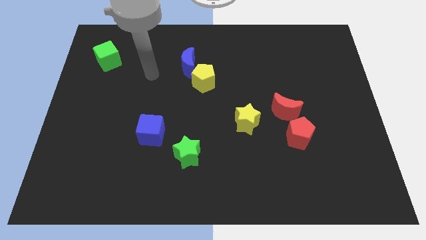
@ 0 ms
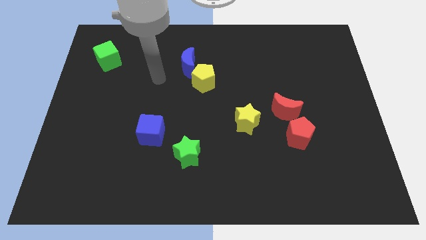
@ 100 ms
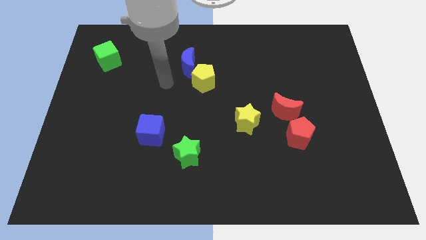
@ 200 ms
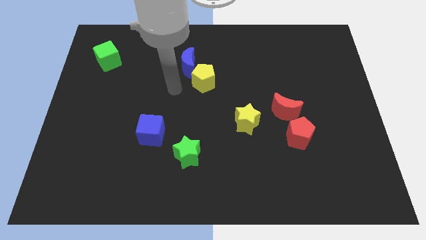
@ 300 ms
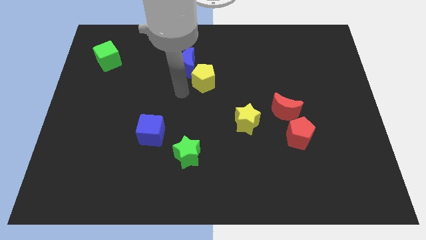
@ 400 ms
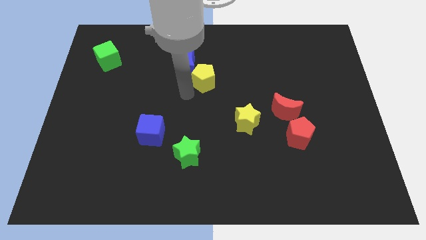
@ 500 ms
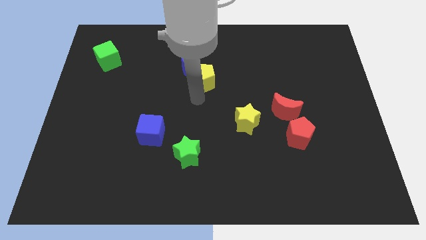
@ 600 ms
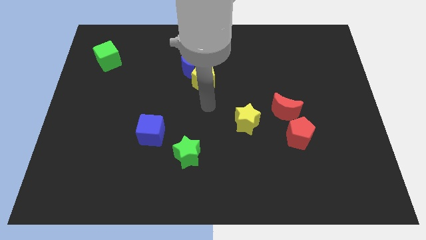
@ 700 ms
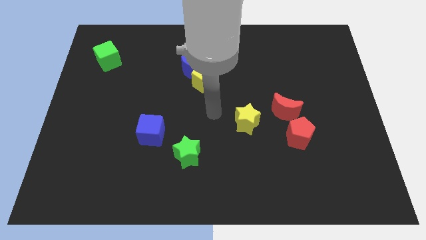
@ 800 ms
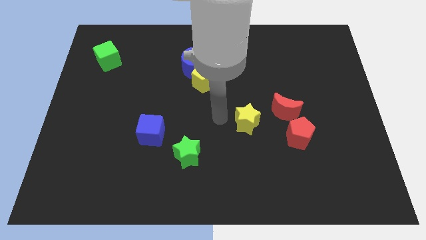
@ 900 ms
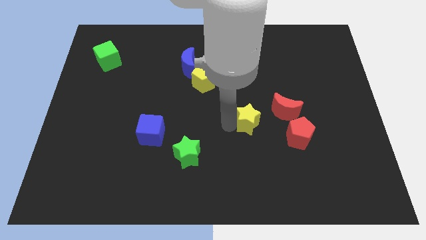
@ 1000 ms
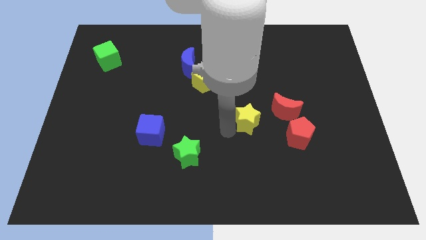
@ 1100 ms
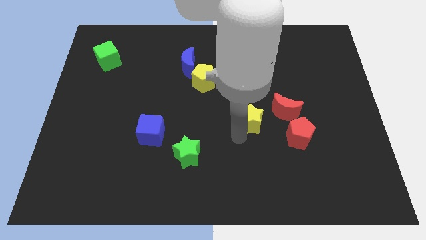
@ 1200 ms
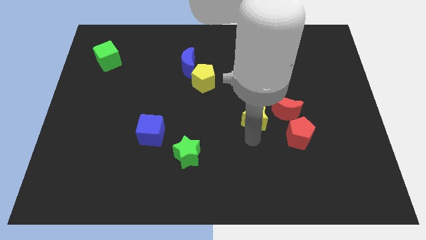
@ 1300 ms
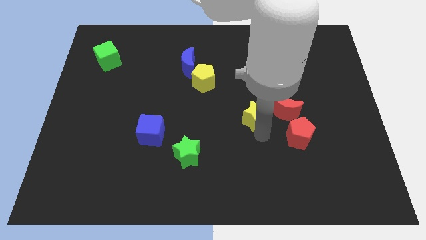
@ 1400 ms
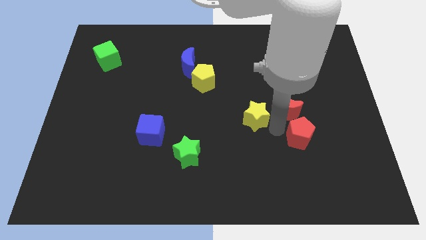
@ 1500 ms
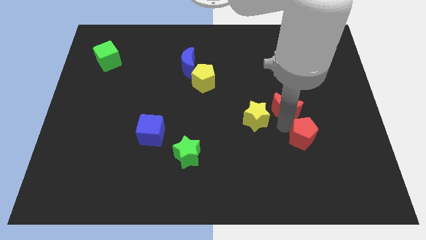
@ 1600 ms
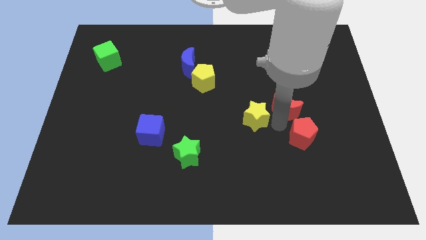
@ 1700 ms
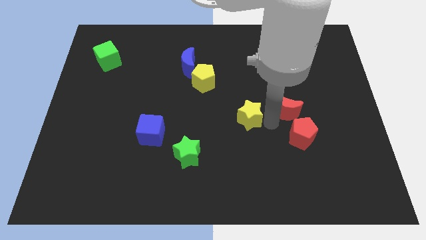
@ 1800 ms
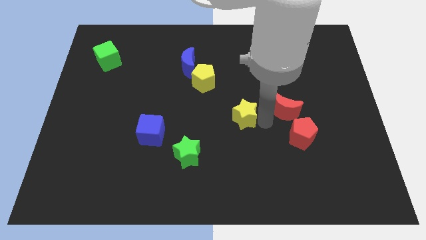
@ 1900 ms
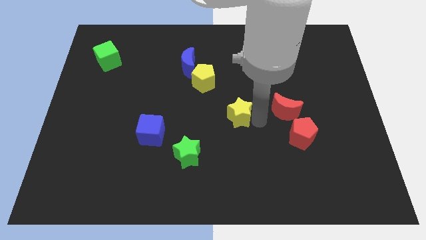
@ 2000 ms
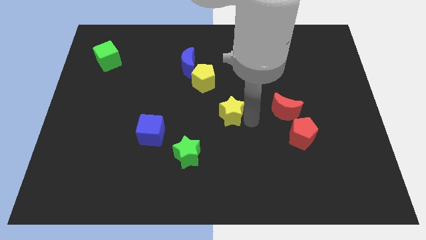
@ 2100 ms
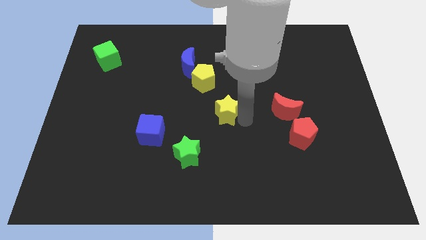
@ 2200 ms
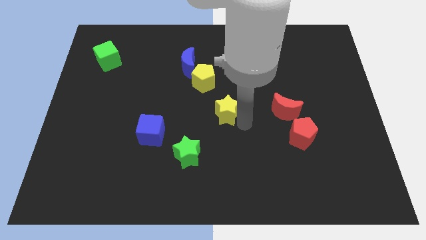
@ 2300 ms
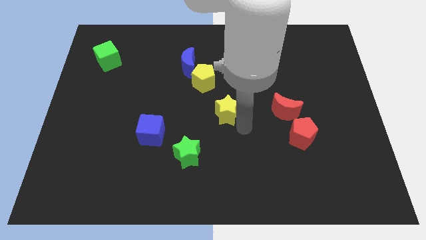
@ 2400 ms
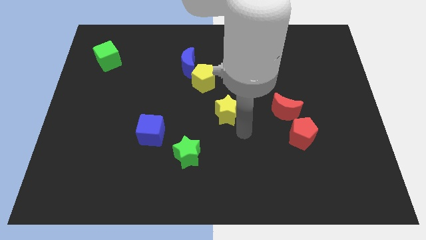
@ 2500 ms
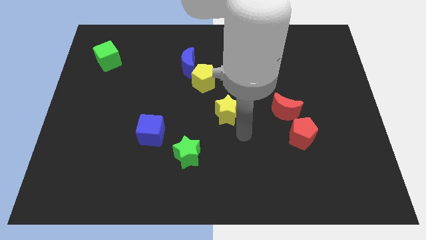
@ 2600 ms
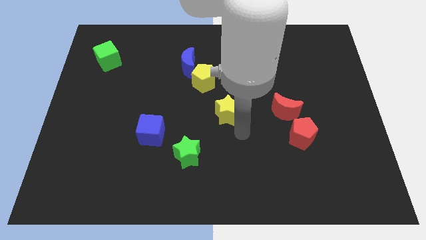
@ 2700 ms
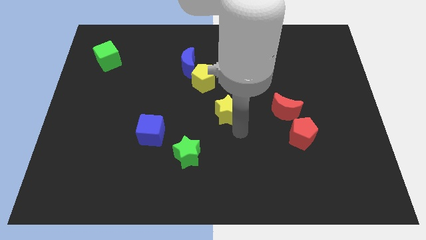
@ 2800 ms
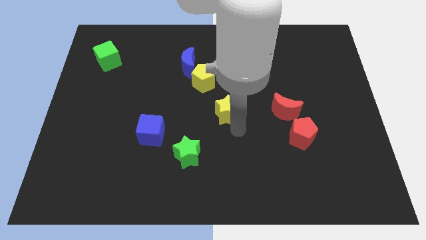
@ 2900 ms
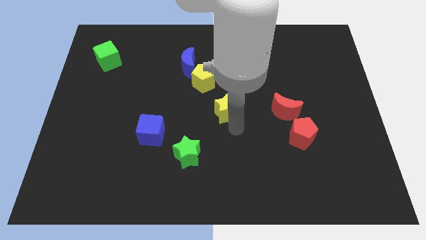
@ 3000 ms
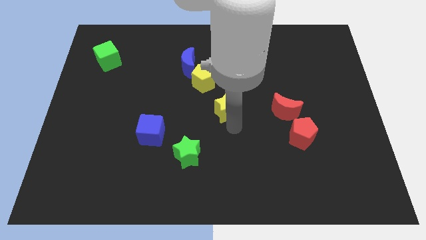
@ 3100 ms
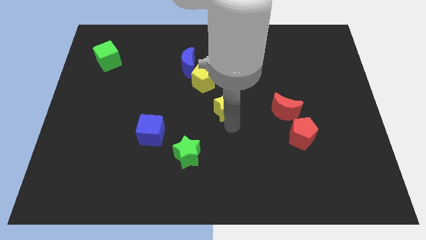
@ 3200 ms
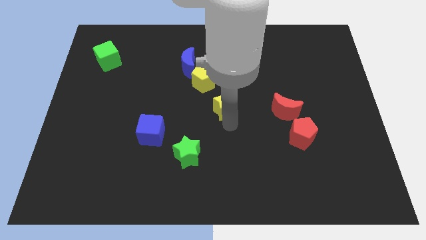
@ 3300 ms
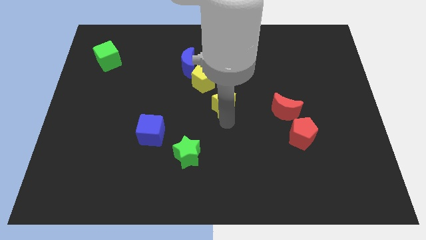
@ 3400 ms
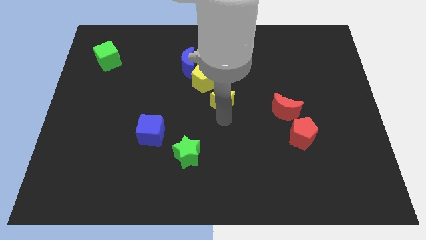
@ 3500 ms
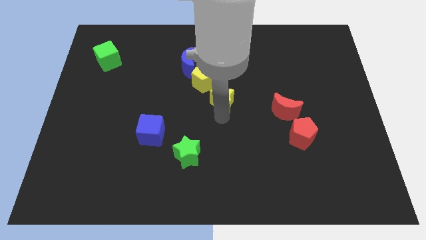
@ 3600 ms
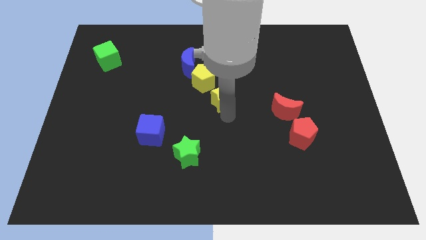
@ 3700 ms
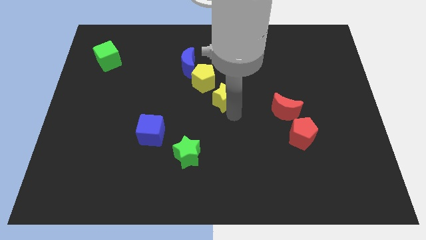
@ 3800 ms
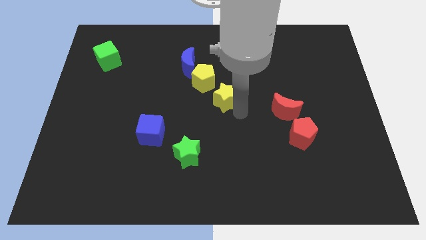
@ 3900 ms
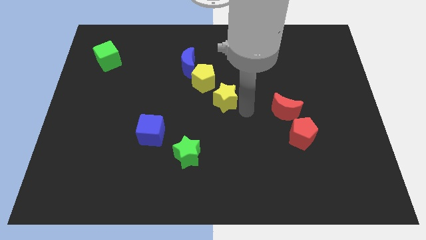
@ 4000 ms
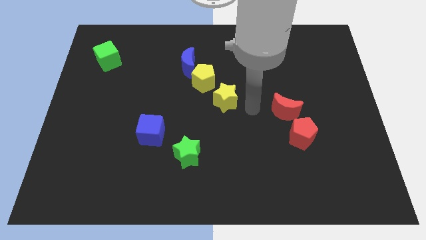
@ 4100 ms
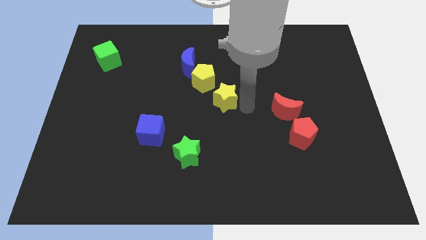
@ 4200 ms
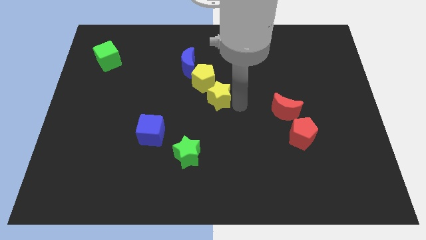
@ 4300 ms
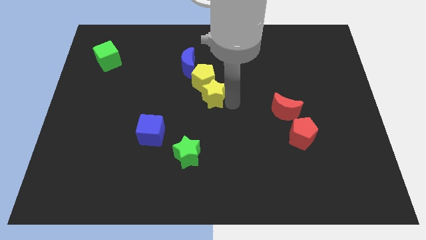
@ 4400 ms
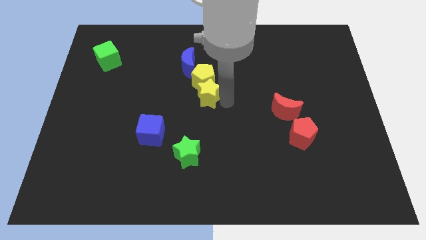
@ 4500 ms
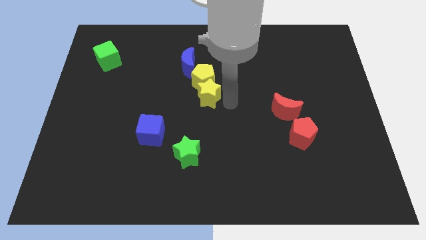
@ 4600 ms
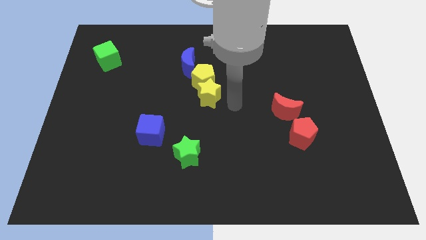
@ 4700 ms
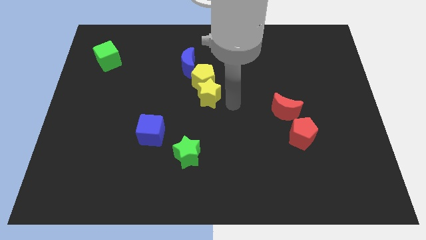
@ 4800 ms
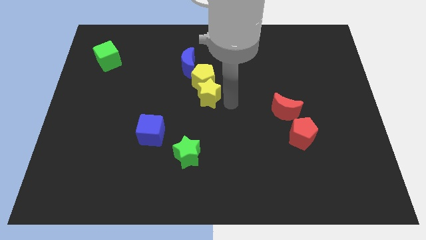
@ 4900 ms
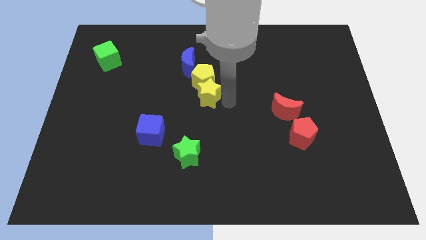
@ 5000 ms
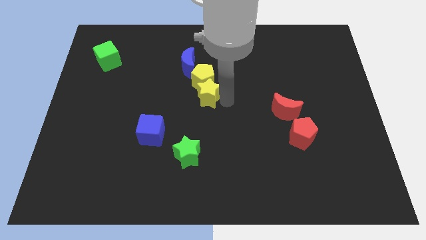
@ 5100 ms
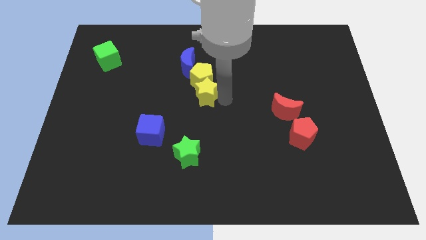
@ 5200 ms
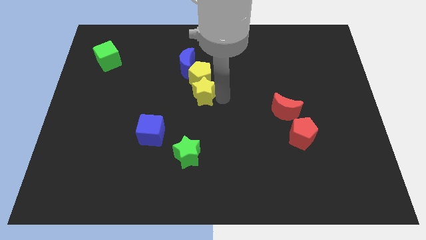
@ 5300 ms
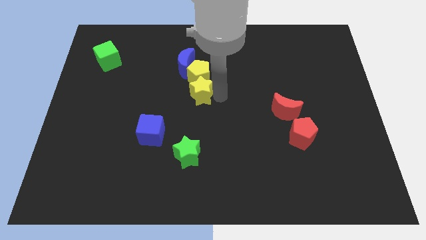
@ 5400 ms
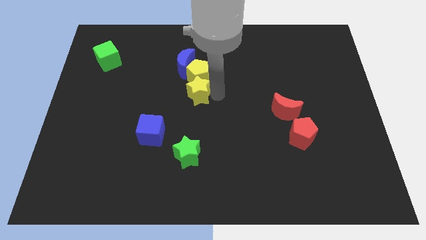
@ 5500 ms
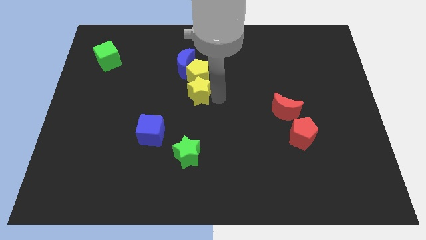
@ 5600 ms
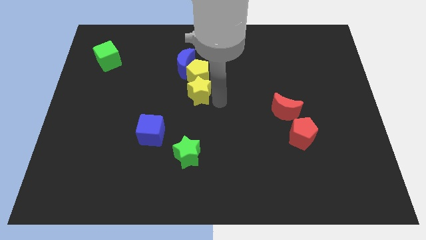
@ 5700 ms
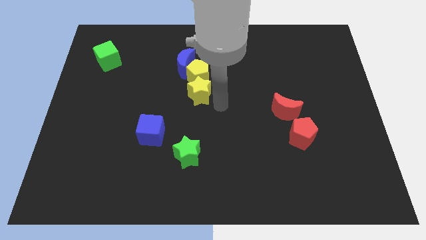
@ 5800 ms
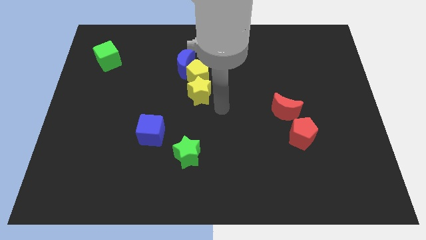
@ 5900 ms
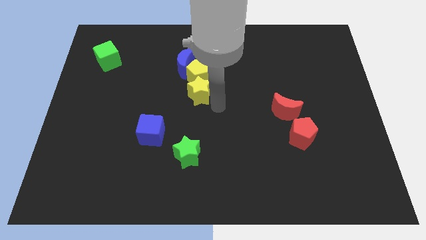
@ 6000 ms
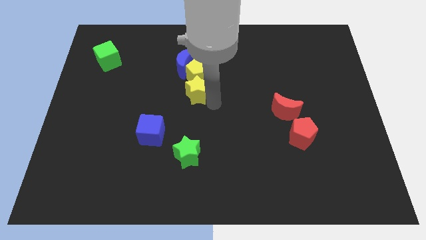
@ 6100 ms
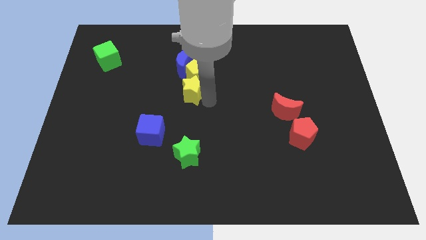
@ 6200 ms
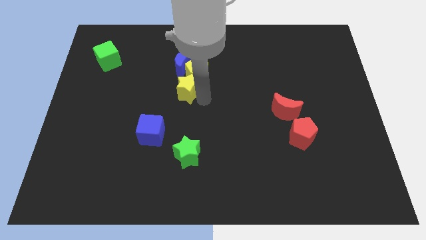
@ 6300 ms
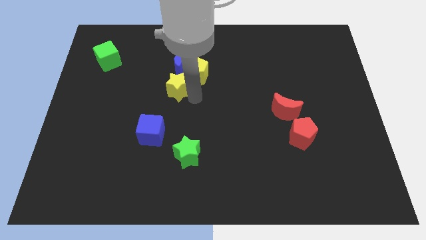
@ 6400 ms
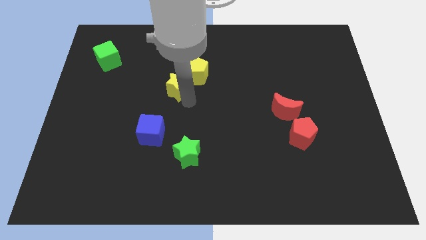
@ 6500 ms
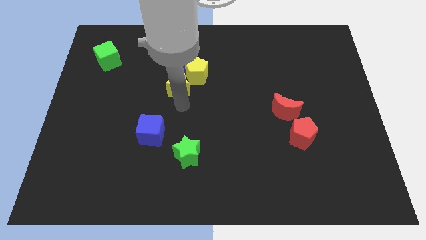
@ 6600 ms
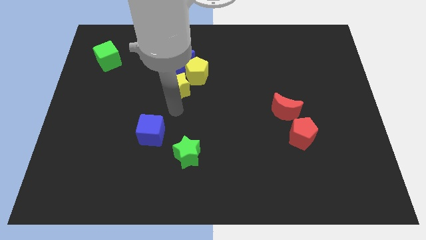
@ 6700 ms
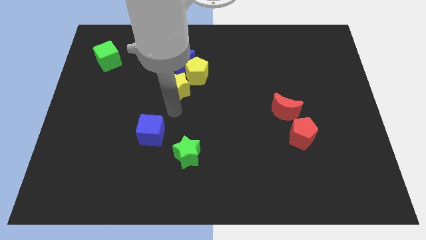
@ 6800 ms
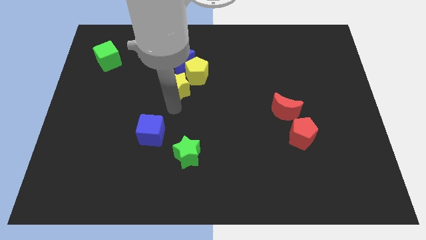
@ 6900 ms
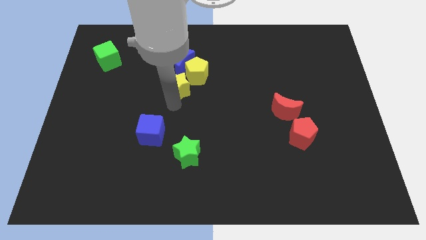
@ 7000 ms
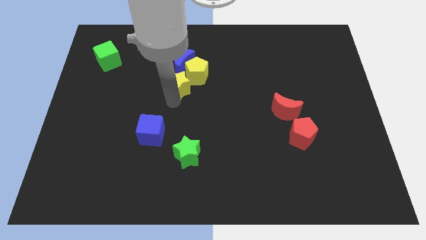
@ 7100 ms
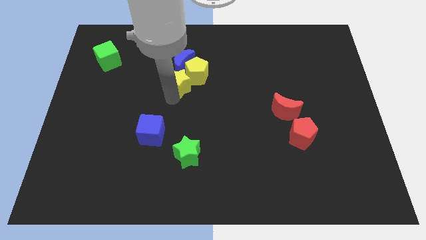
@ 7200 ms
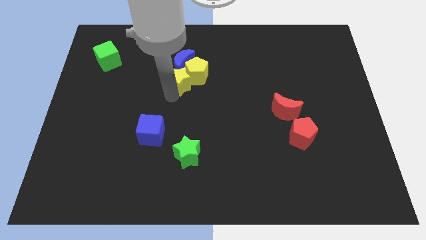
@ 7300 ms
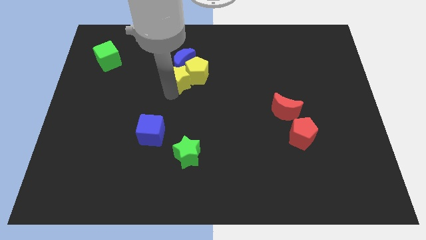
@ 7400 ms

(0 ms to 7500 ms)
push the yellow star towards the blue moon

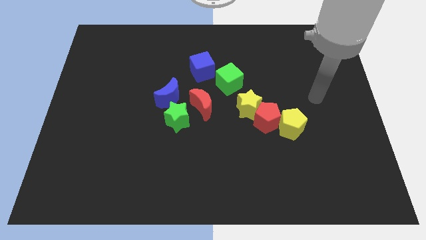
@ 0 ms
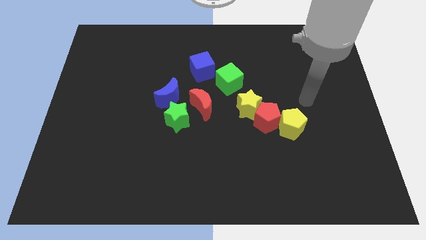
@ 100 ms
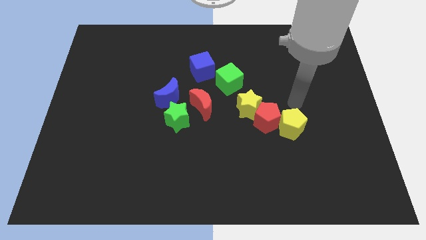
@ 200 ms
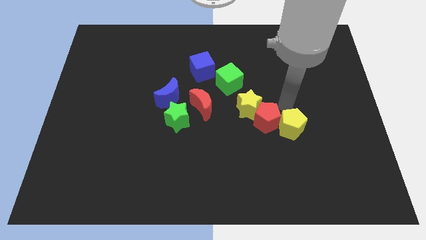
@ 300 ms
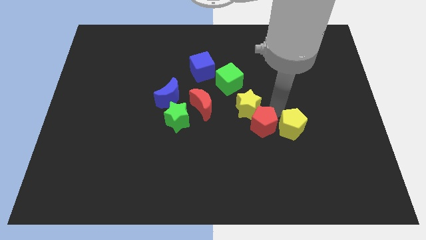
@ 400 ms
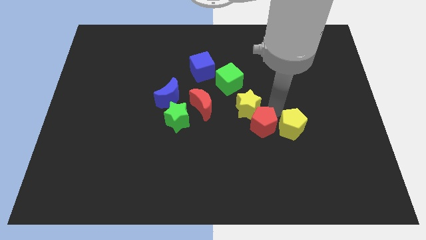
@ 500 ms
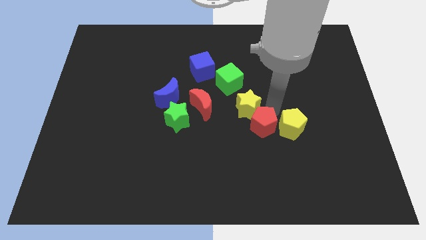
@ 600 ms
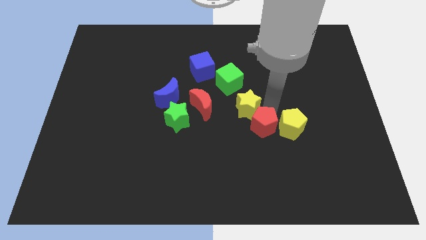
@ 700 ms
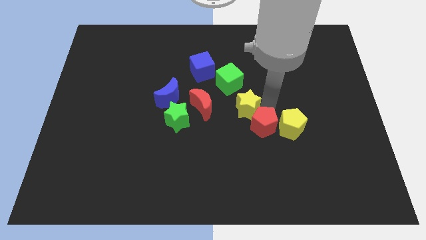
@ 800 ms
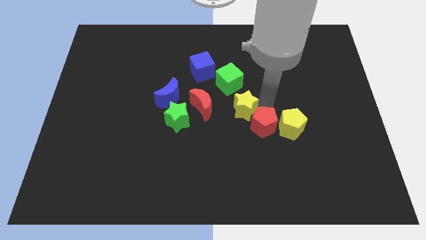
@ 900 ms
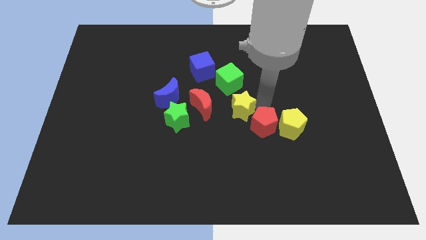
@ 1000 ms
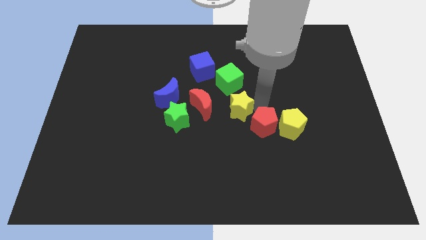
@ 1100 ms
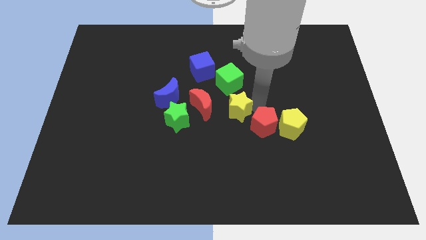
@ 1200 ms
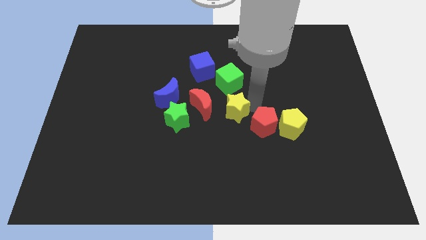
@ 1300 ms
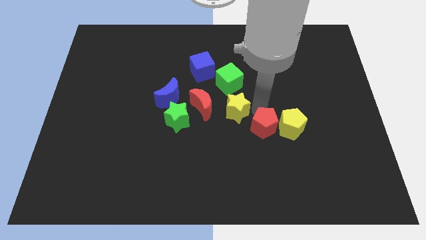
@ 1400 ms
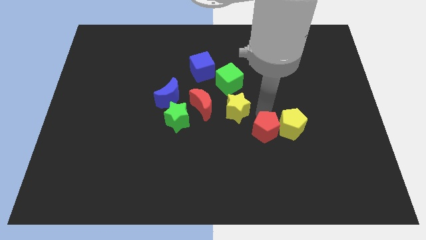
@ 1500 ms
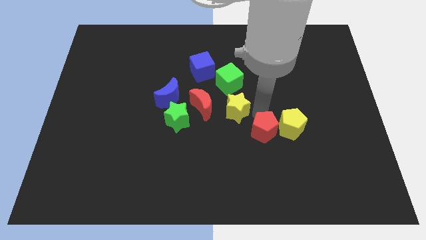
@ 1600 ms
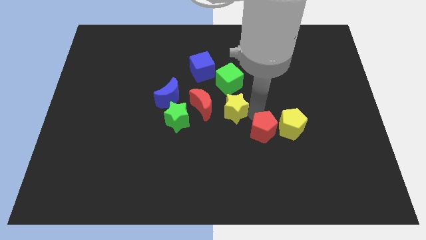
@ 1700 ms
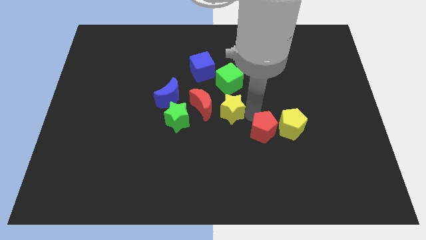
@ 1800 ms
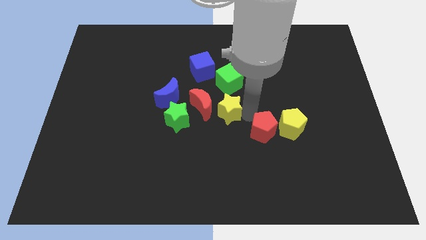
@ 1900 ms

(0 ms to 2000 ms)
move the yellow star towards the red moon
